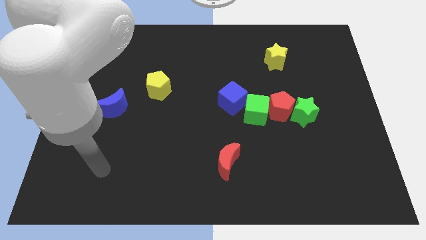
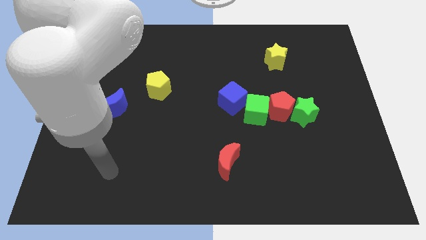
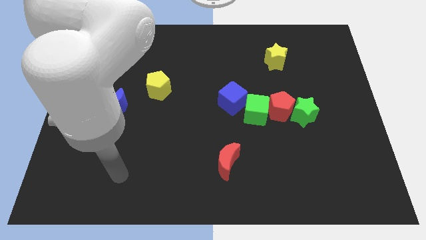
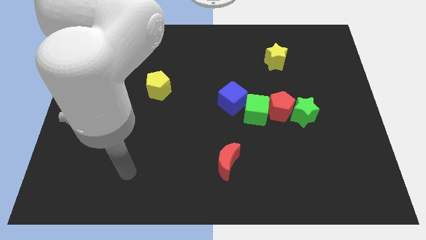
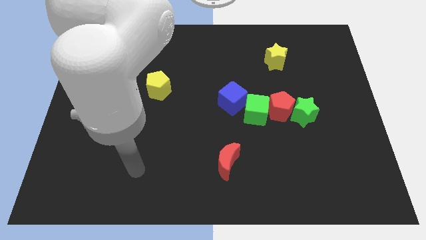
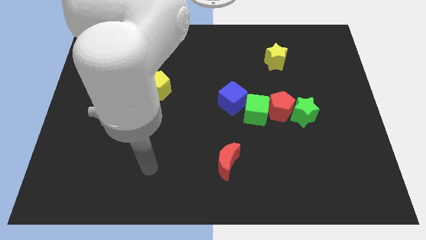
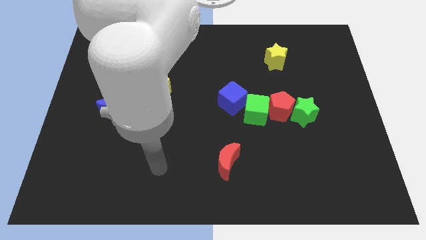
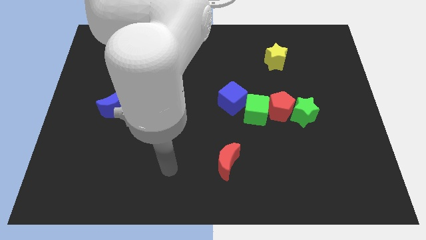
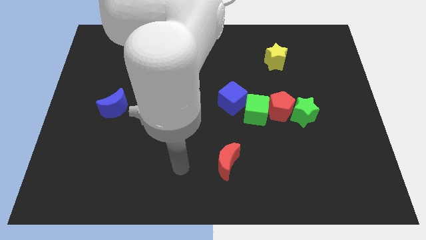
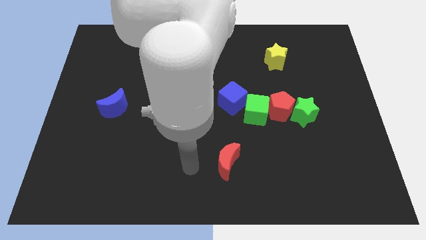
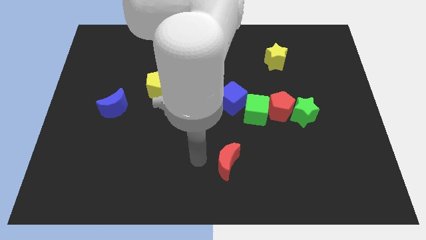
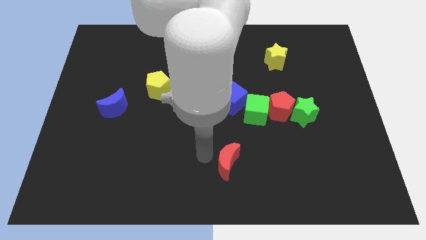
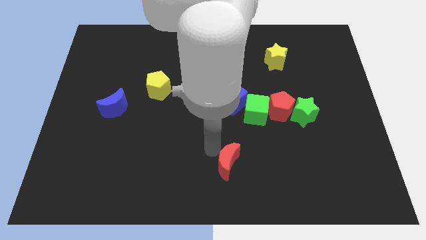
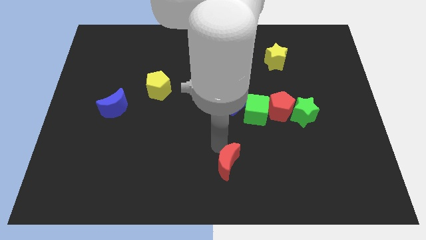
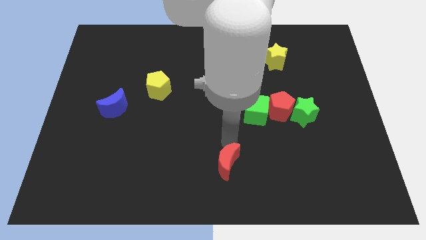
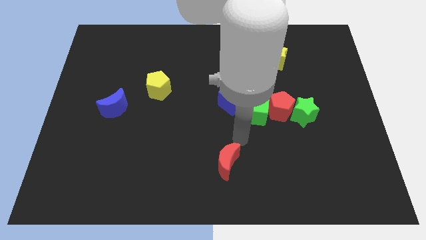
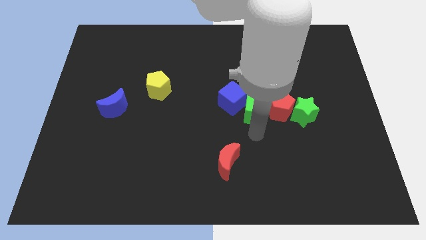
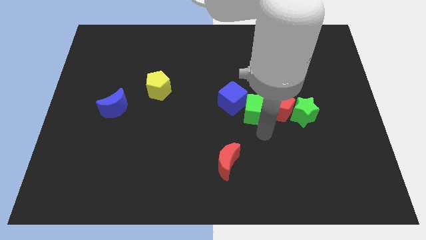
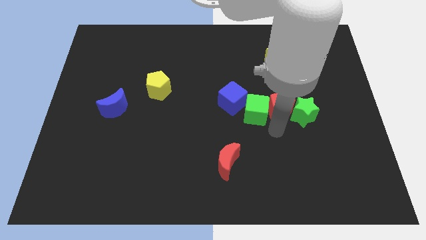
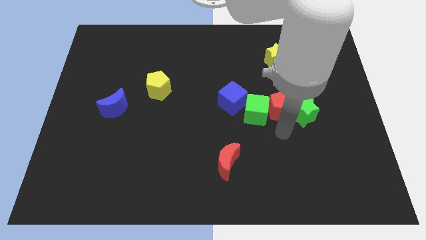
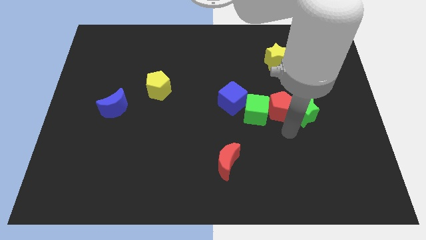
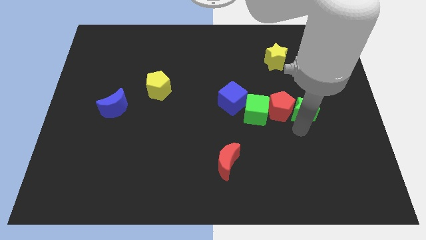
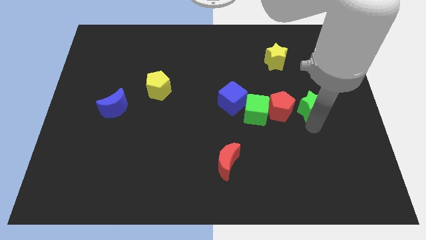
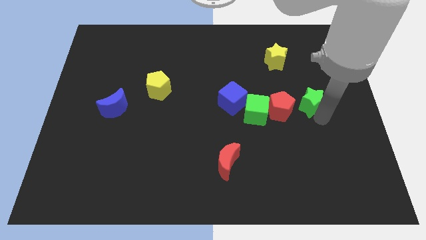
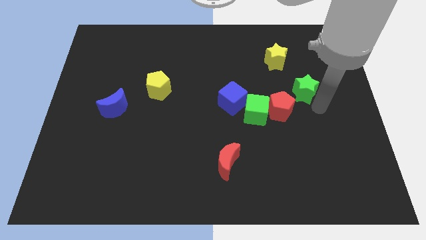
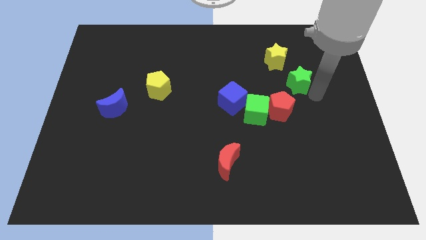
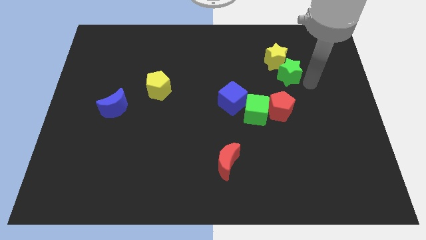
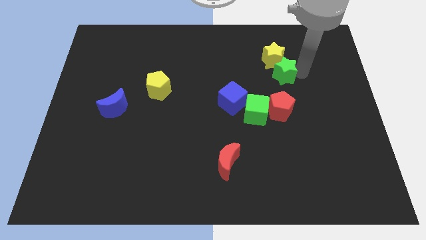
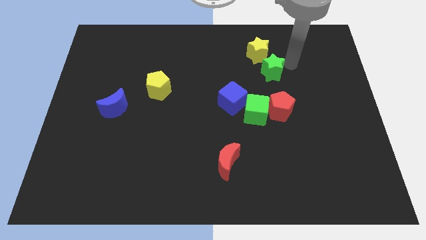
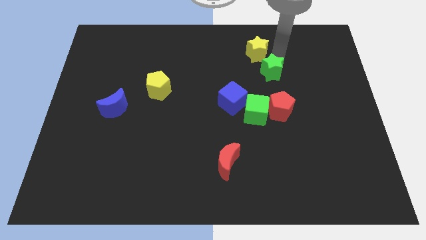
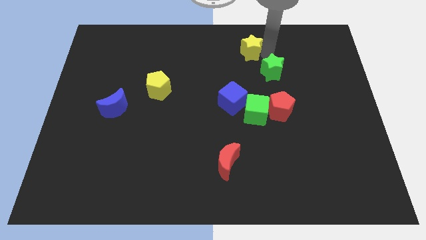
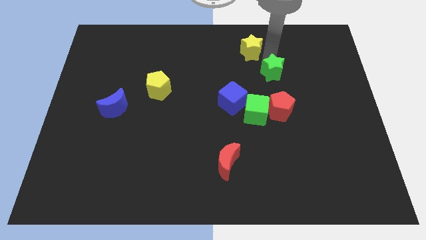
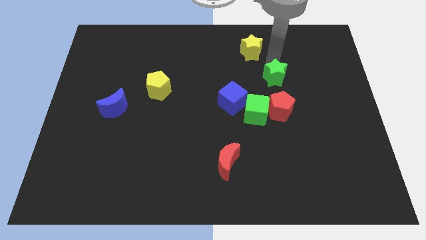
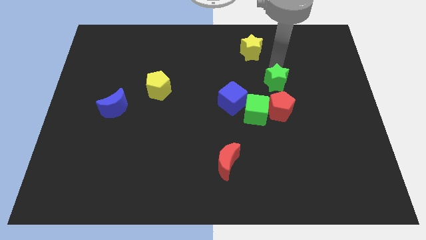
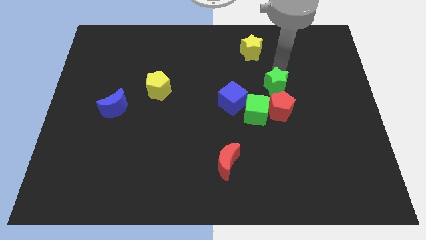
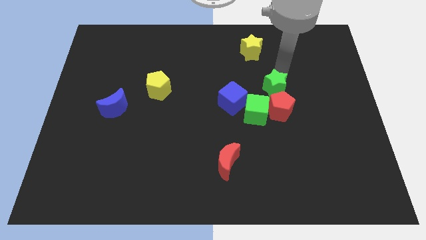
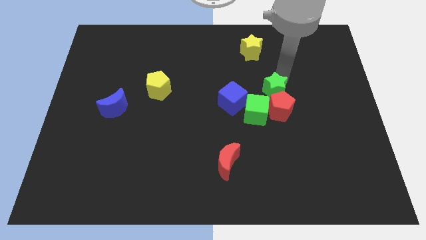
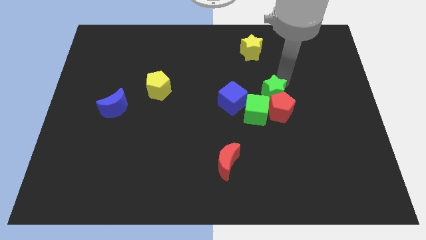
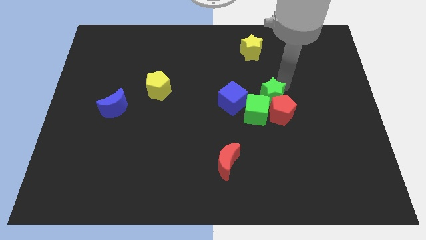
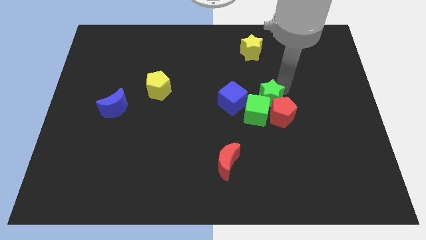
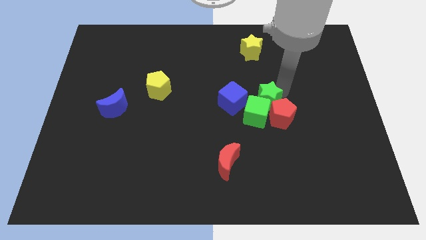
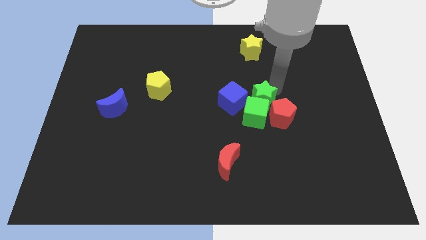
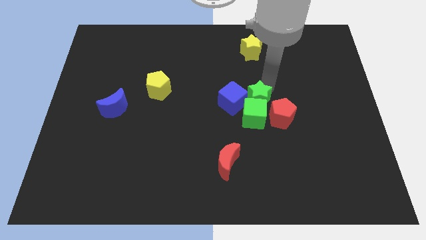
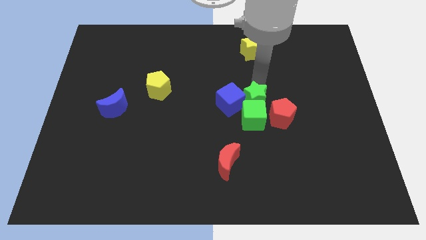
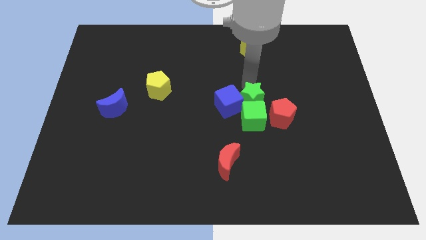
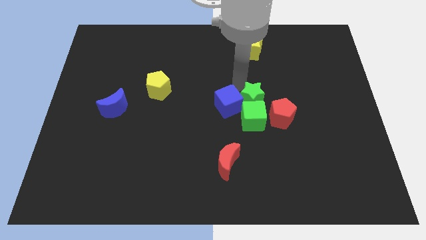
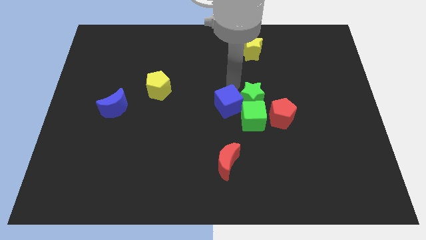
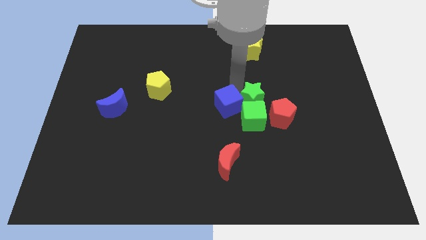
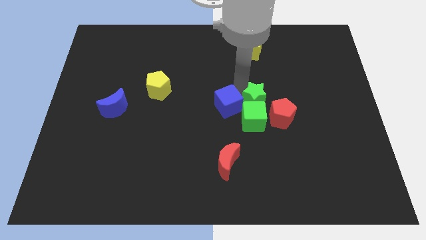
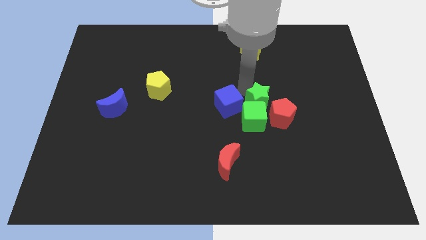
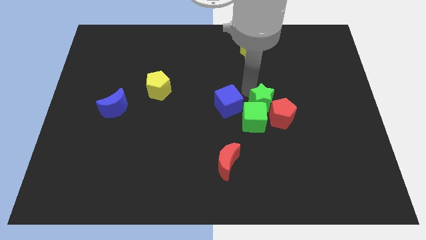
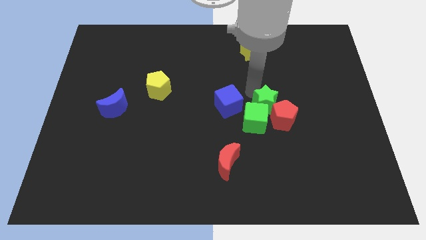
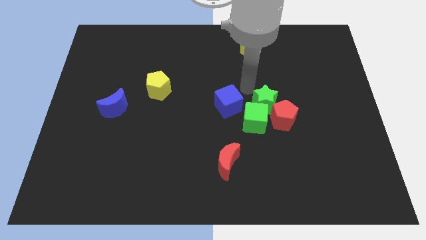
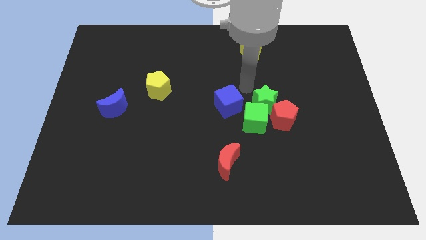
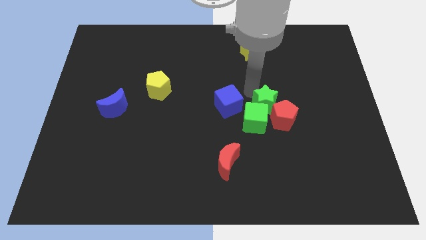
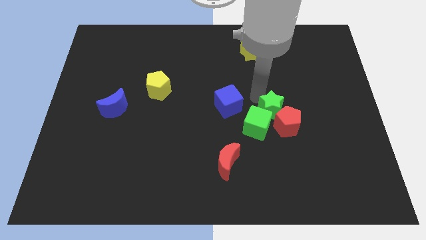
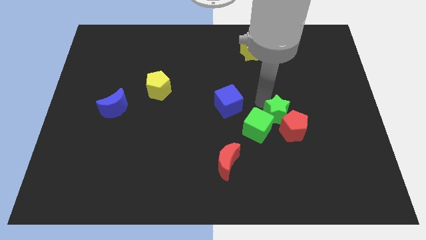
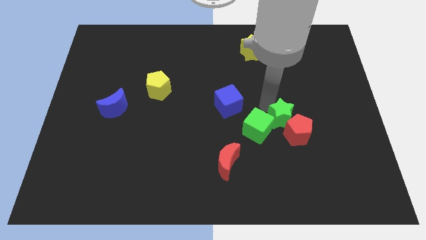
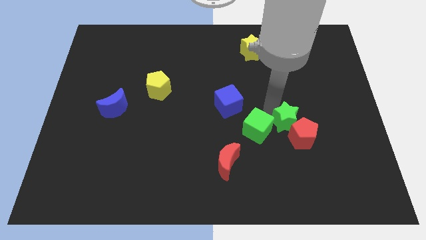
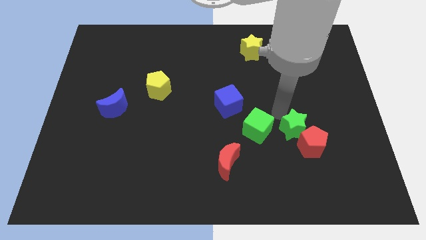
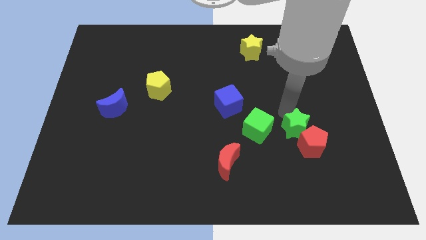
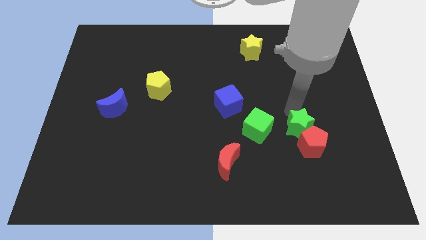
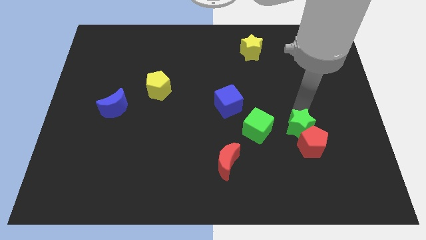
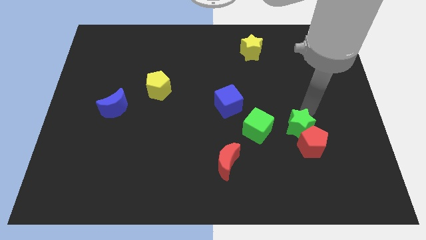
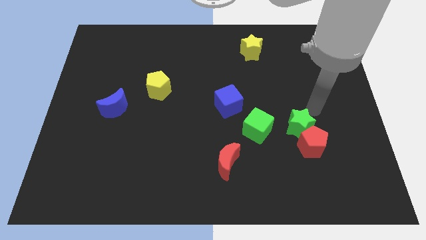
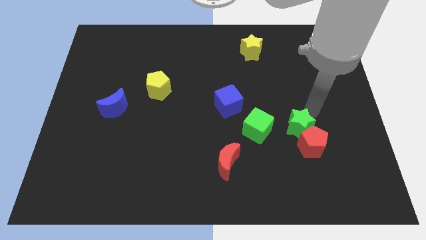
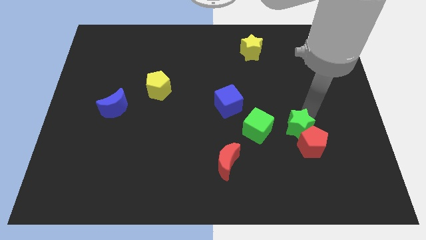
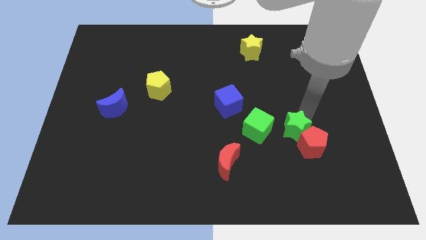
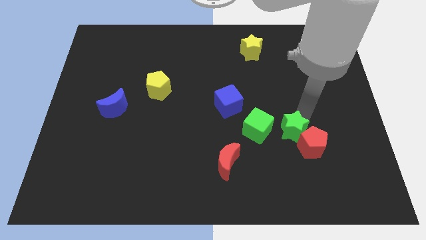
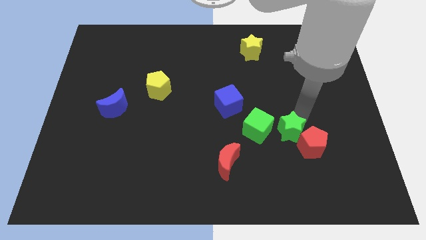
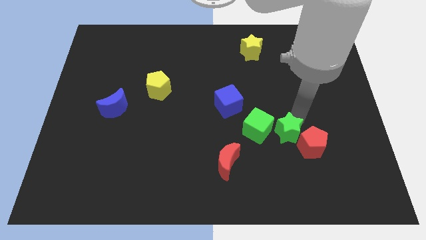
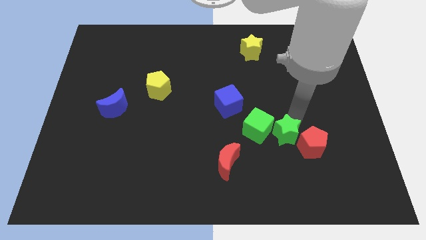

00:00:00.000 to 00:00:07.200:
slide the green star downwards and left a bit

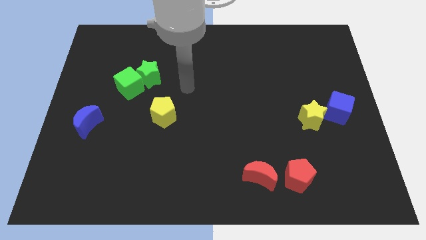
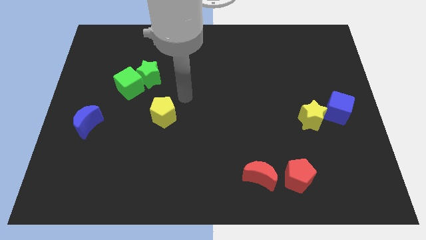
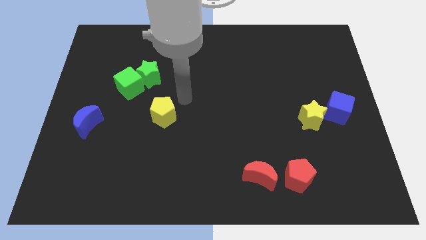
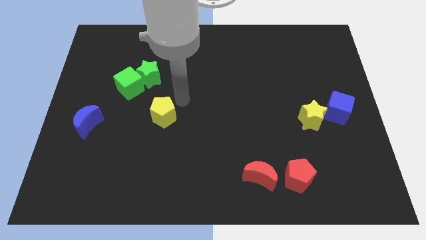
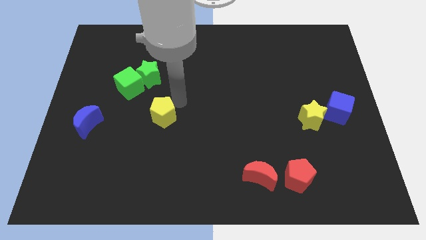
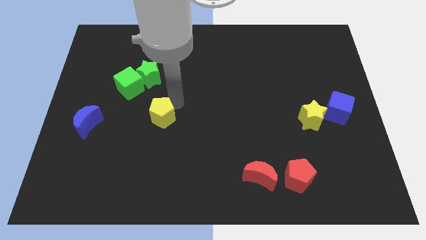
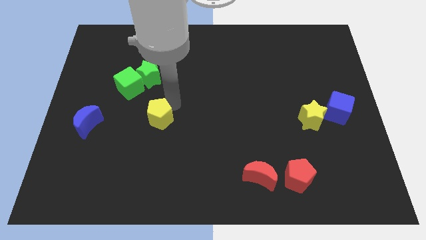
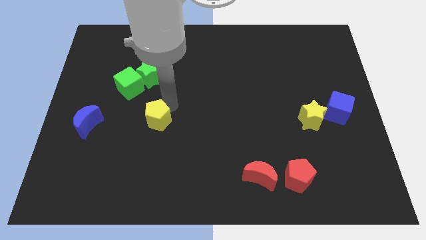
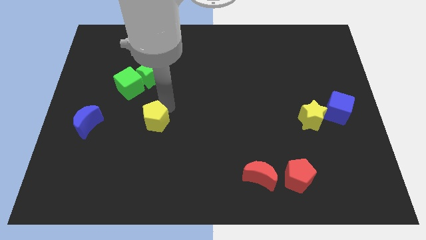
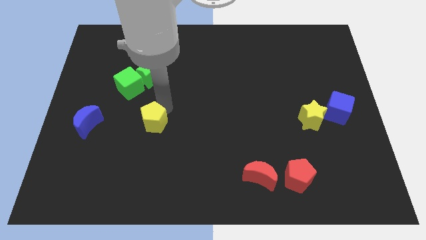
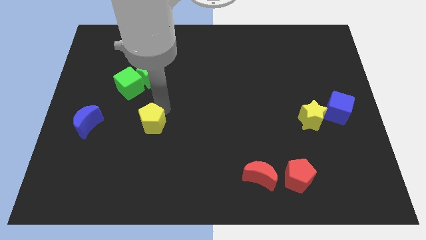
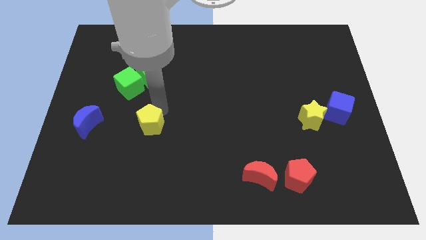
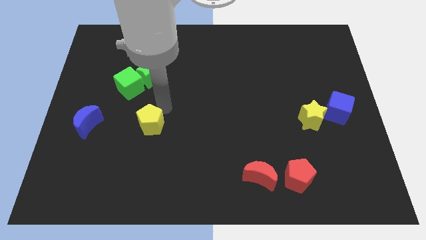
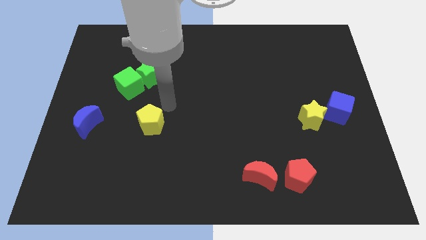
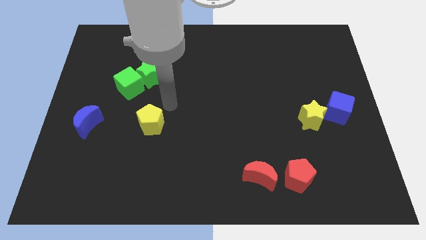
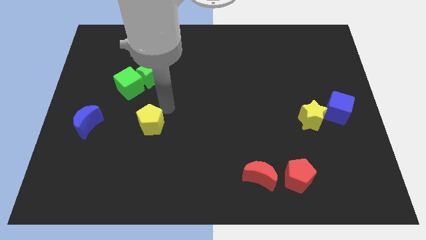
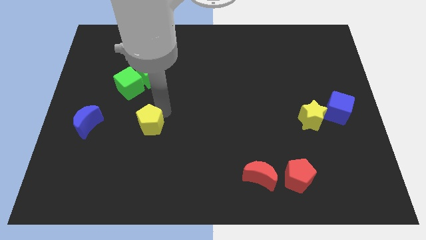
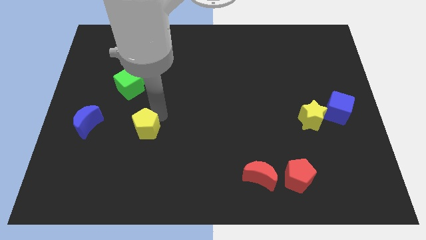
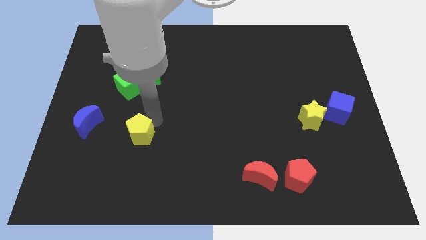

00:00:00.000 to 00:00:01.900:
push the yellow pentagon a bit downwards and left diagonally
